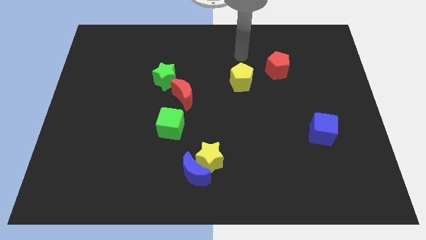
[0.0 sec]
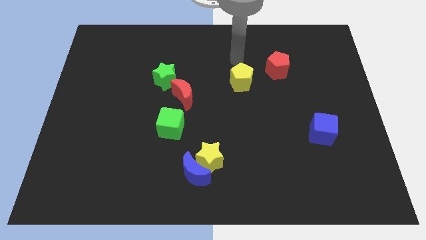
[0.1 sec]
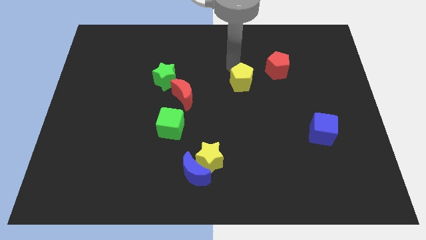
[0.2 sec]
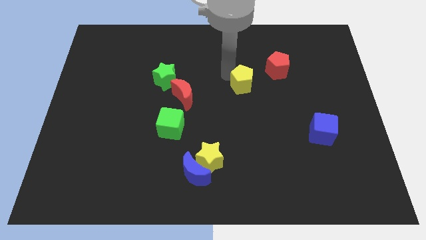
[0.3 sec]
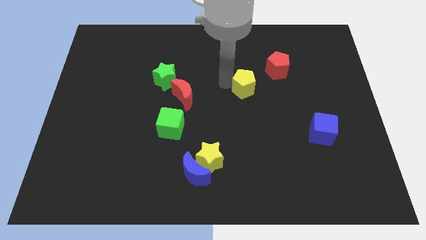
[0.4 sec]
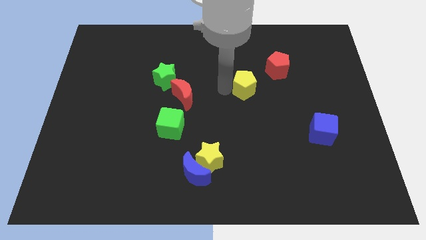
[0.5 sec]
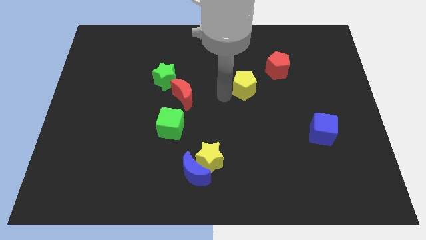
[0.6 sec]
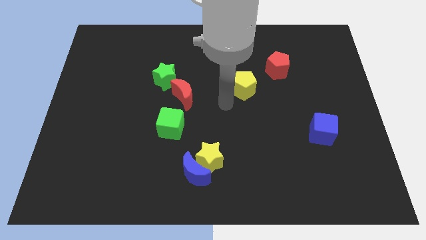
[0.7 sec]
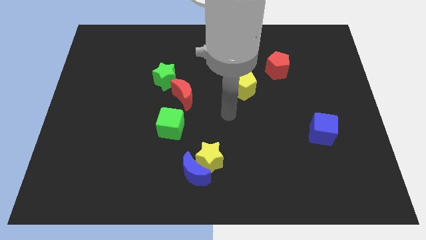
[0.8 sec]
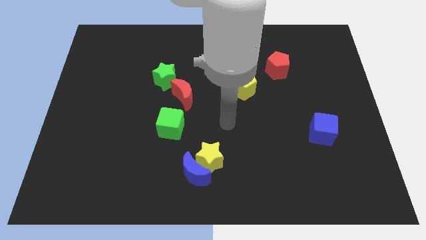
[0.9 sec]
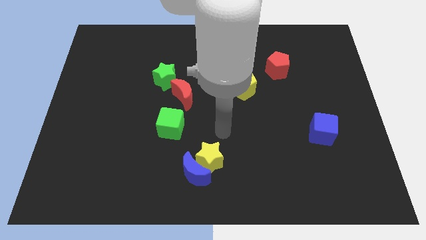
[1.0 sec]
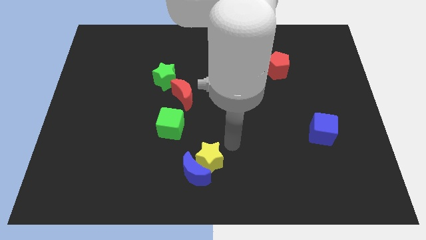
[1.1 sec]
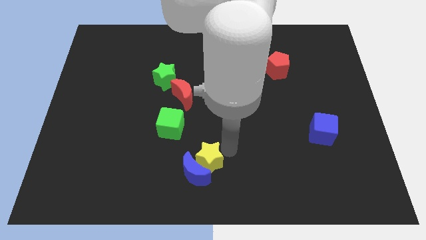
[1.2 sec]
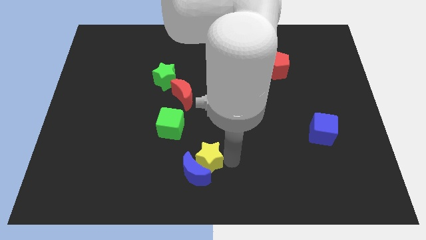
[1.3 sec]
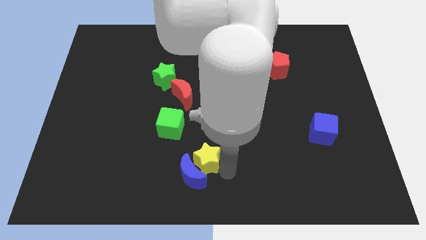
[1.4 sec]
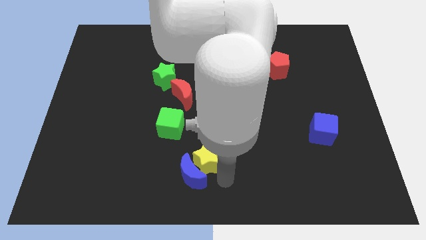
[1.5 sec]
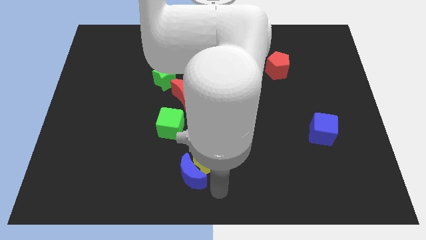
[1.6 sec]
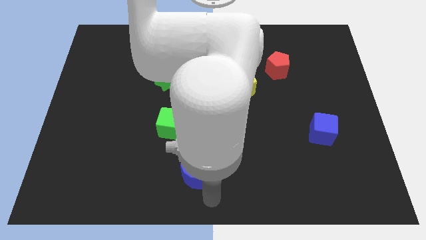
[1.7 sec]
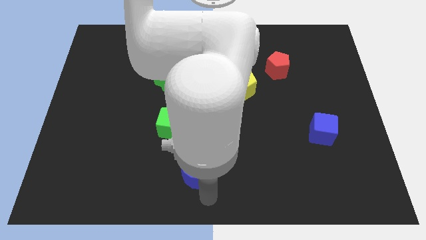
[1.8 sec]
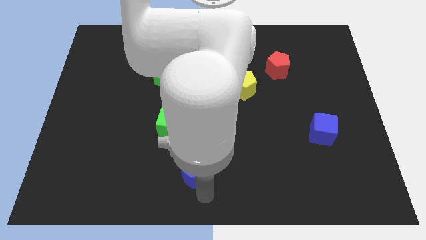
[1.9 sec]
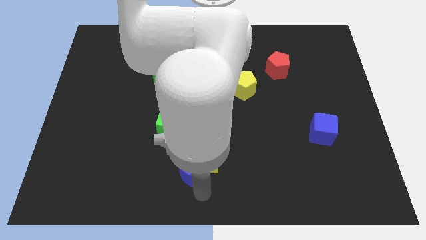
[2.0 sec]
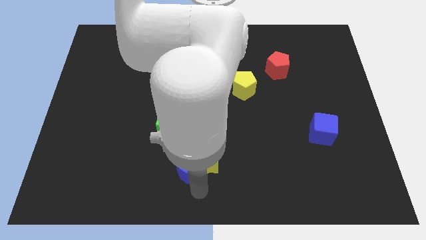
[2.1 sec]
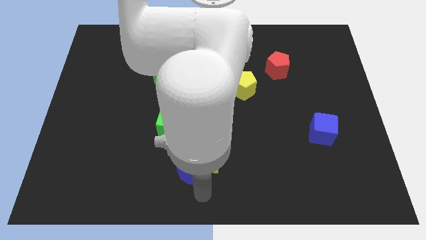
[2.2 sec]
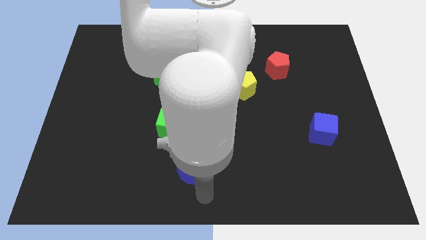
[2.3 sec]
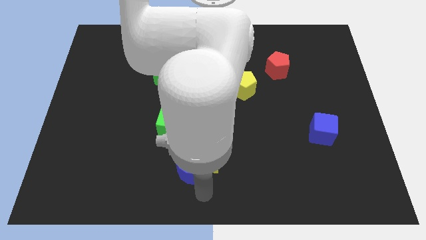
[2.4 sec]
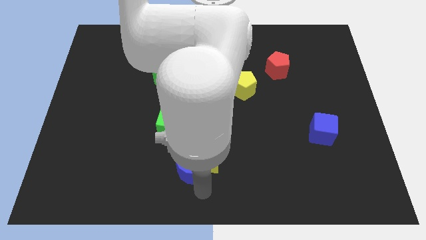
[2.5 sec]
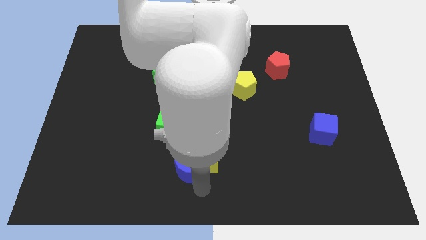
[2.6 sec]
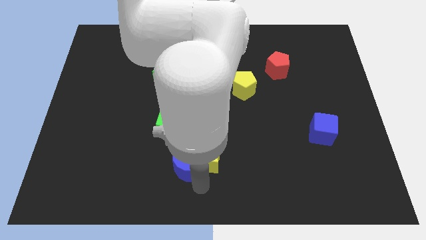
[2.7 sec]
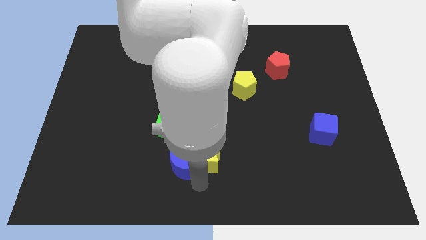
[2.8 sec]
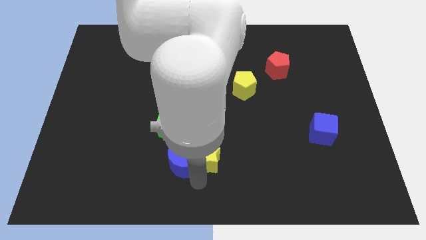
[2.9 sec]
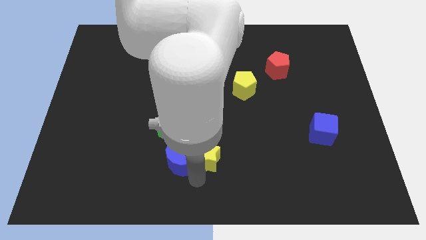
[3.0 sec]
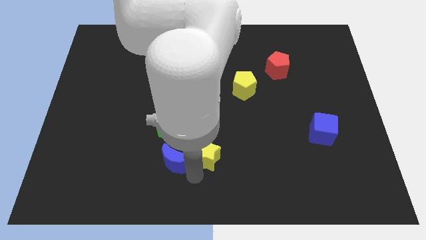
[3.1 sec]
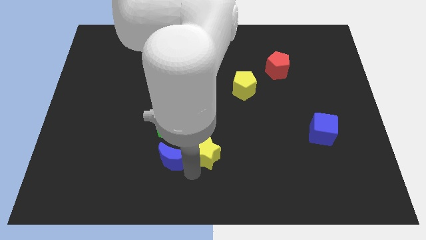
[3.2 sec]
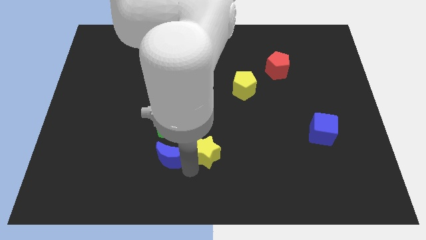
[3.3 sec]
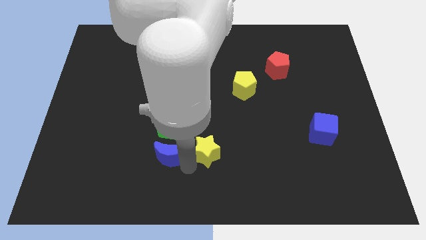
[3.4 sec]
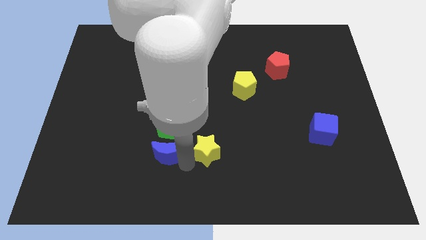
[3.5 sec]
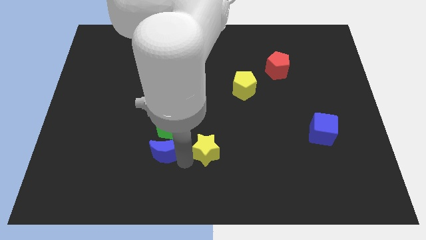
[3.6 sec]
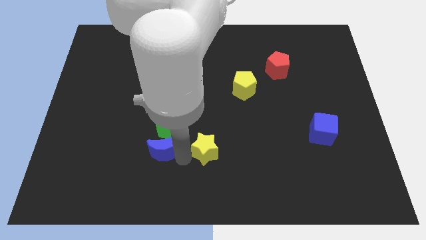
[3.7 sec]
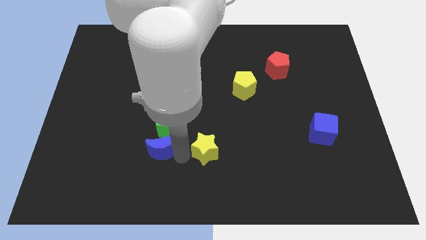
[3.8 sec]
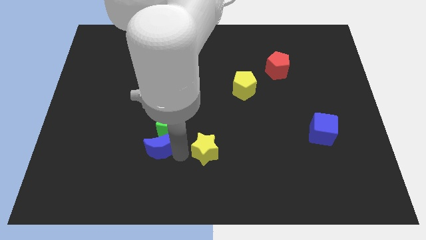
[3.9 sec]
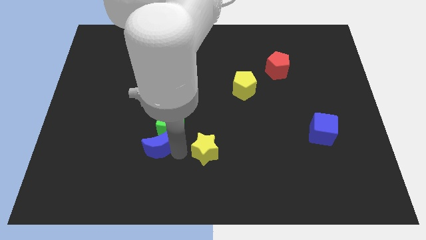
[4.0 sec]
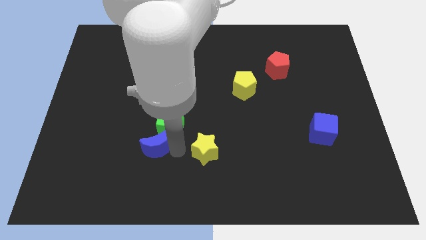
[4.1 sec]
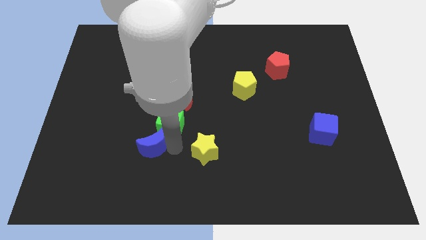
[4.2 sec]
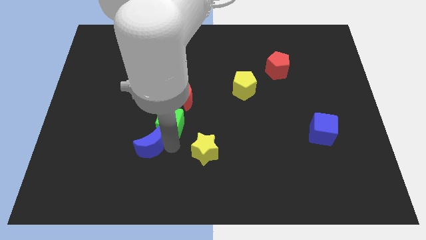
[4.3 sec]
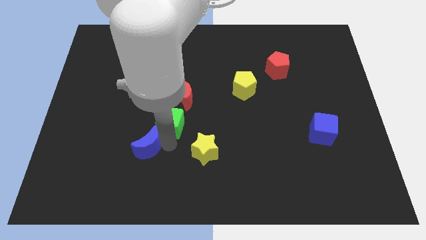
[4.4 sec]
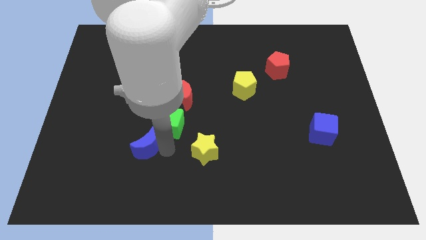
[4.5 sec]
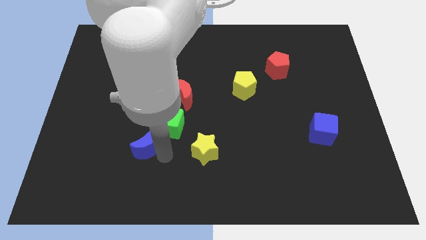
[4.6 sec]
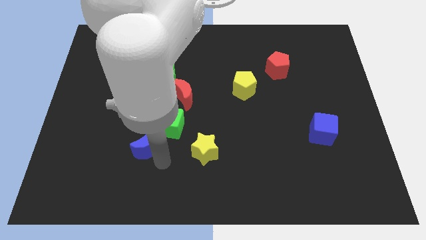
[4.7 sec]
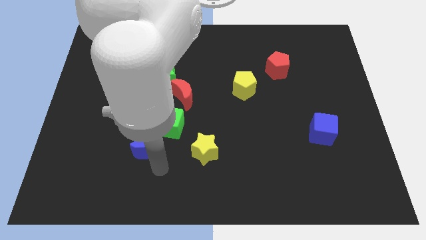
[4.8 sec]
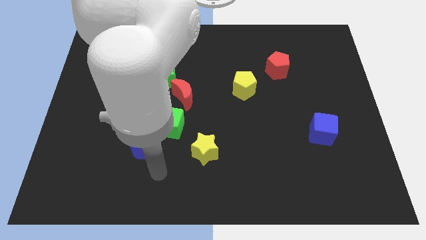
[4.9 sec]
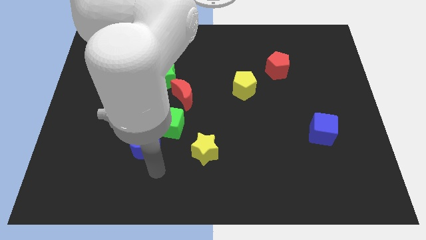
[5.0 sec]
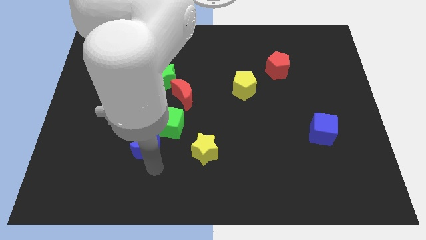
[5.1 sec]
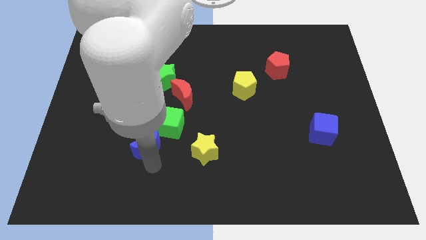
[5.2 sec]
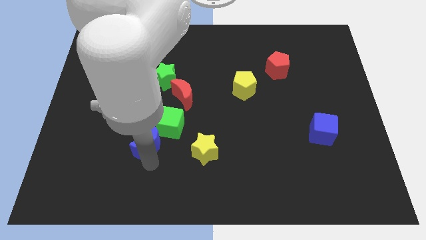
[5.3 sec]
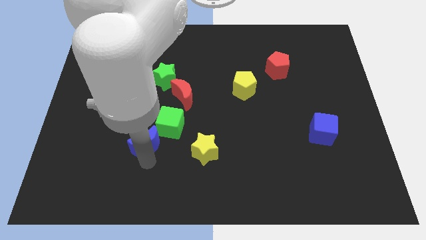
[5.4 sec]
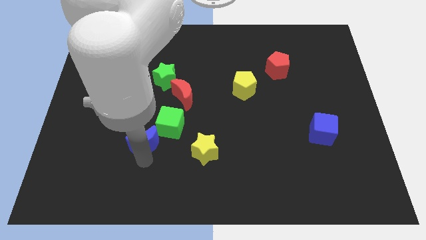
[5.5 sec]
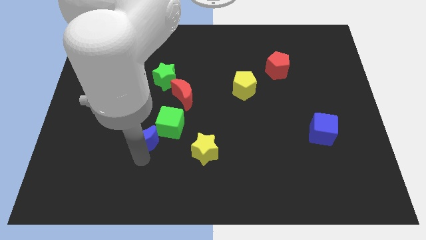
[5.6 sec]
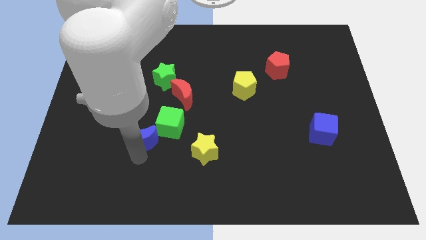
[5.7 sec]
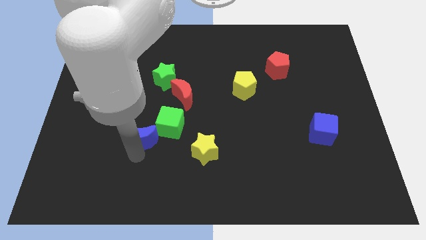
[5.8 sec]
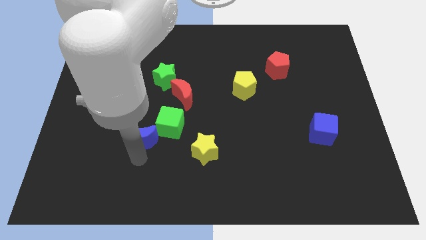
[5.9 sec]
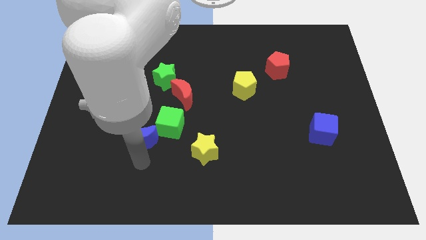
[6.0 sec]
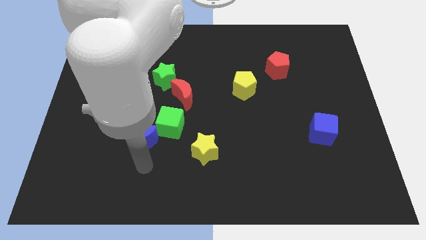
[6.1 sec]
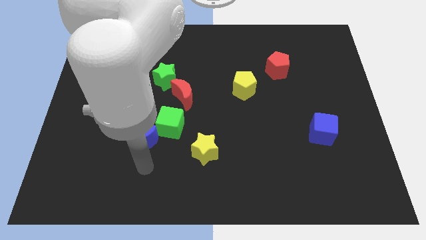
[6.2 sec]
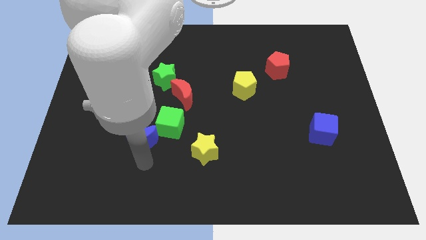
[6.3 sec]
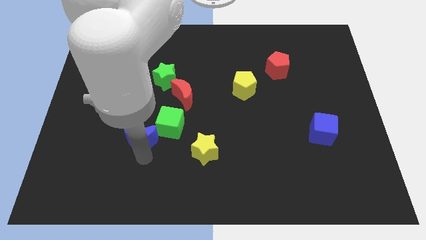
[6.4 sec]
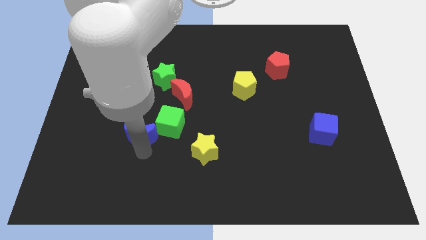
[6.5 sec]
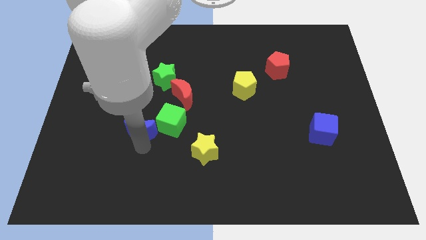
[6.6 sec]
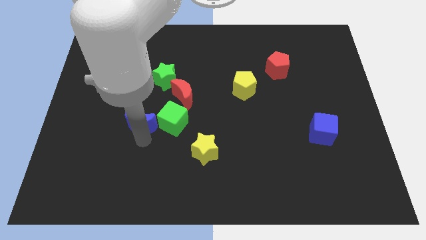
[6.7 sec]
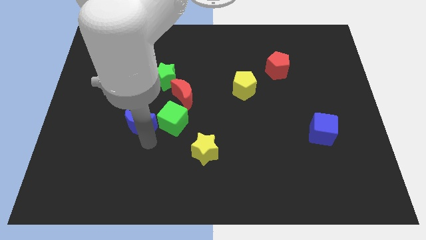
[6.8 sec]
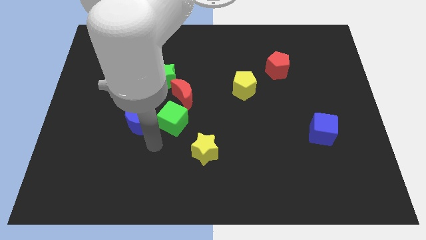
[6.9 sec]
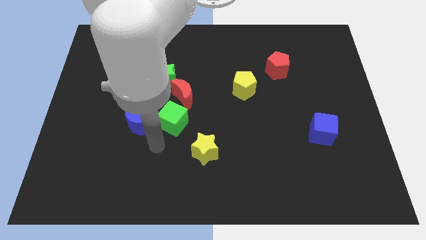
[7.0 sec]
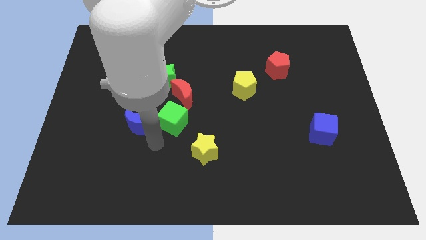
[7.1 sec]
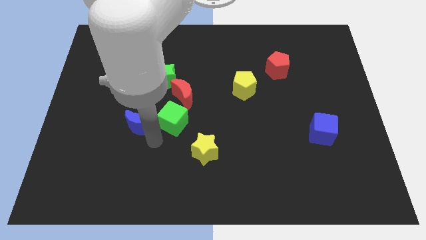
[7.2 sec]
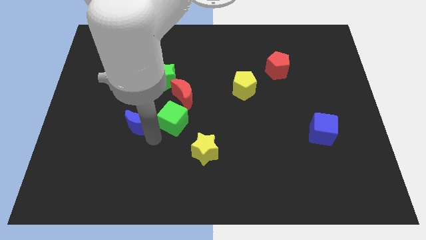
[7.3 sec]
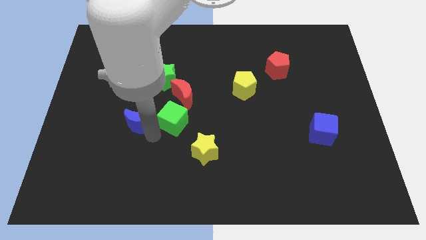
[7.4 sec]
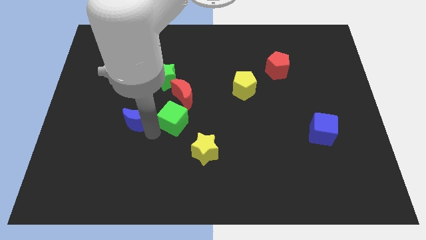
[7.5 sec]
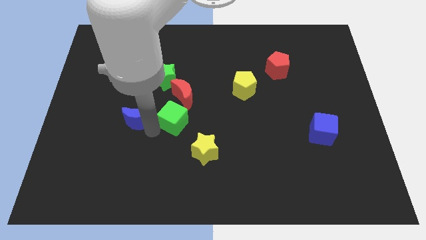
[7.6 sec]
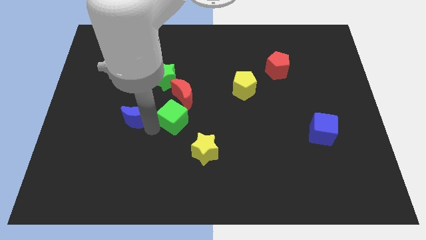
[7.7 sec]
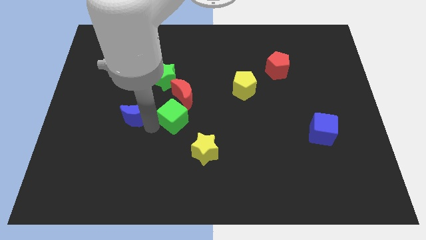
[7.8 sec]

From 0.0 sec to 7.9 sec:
move the blue moon upwards and to the left
